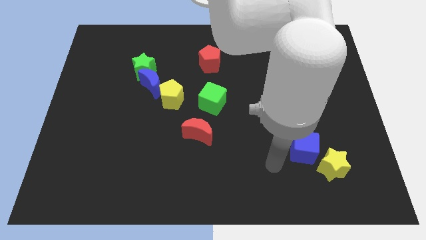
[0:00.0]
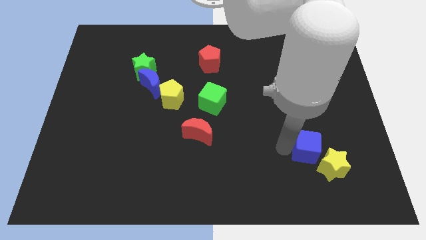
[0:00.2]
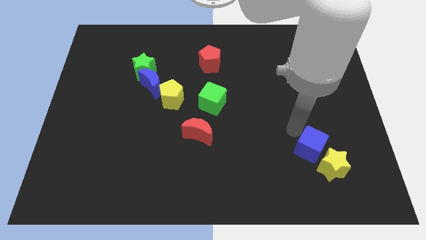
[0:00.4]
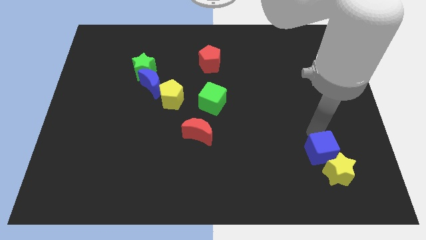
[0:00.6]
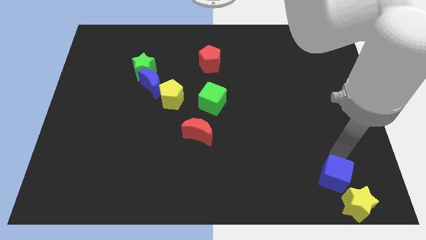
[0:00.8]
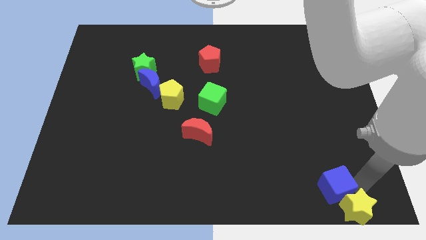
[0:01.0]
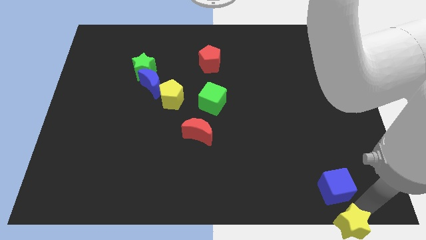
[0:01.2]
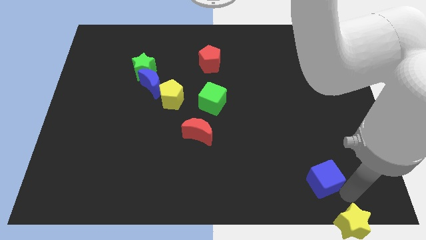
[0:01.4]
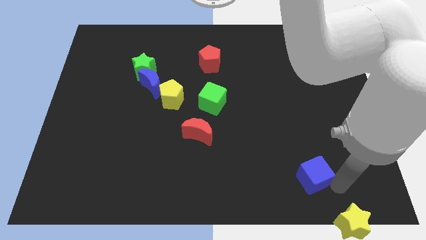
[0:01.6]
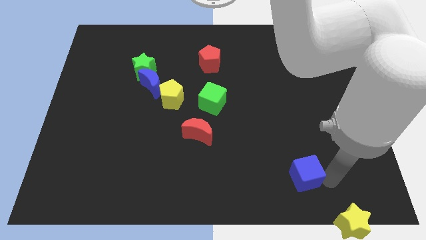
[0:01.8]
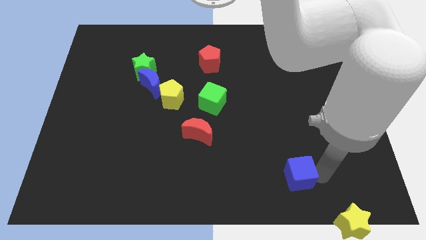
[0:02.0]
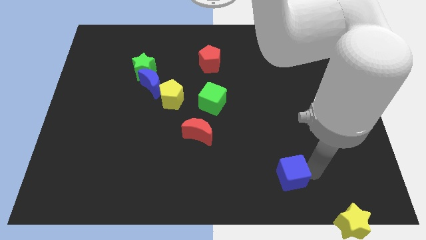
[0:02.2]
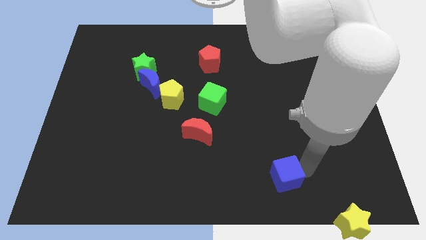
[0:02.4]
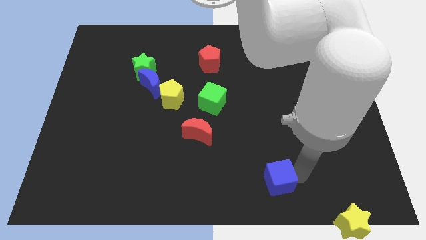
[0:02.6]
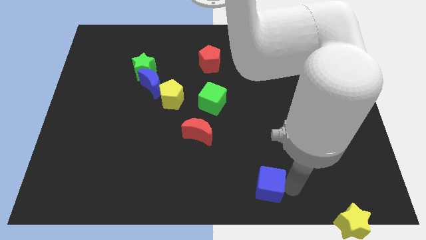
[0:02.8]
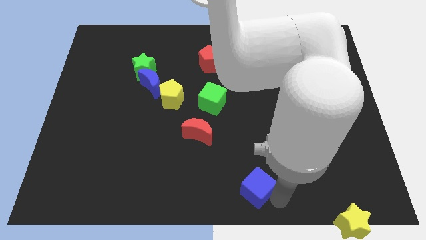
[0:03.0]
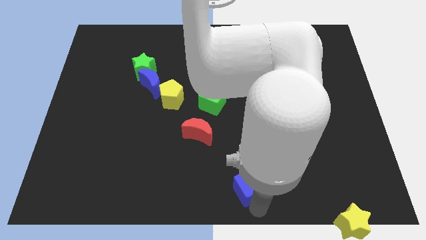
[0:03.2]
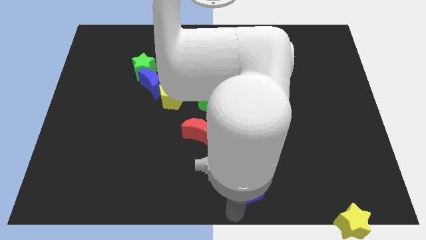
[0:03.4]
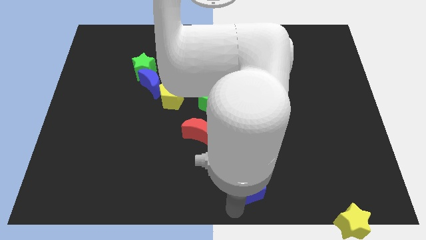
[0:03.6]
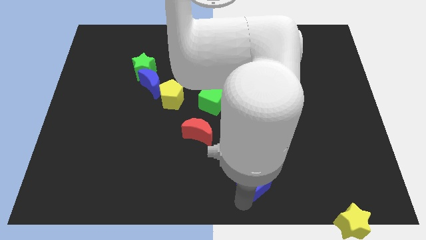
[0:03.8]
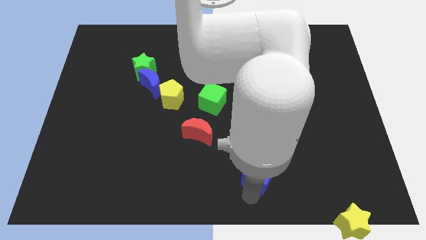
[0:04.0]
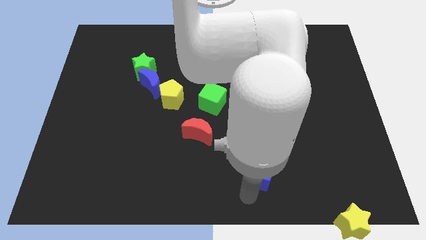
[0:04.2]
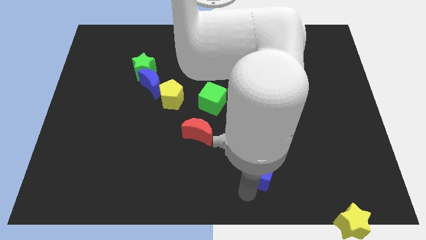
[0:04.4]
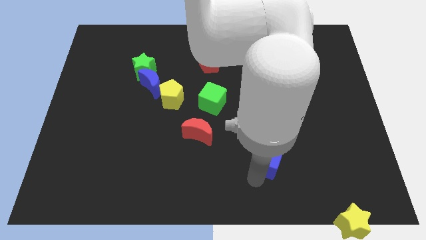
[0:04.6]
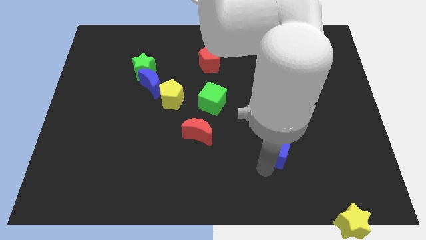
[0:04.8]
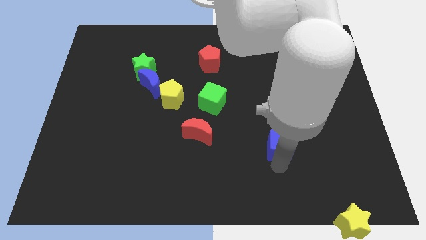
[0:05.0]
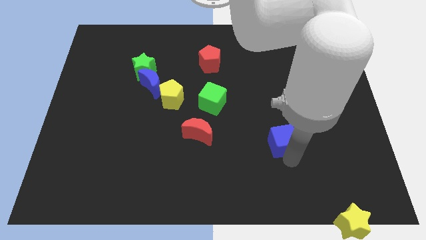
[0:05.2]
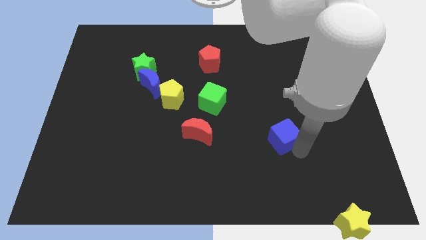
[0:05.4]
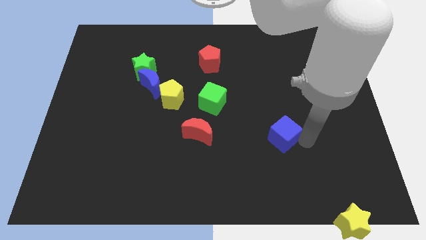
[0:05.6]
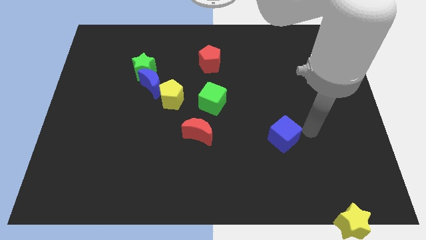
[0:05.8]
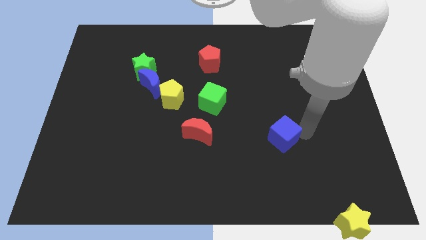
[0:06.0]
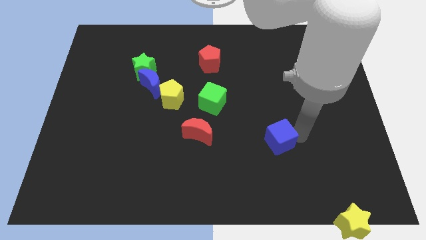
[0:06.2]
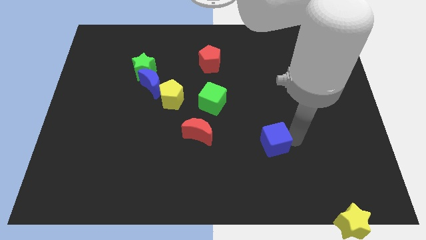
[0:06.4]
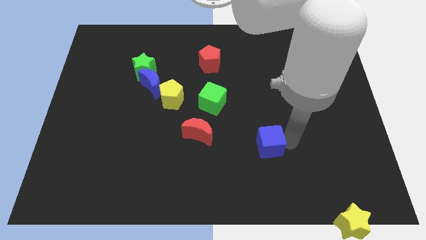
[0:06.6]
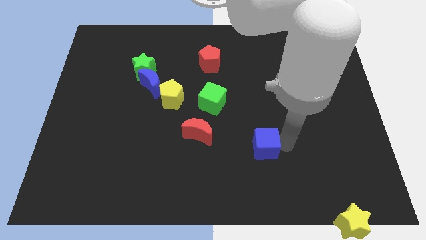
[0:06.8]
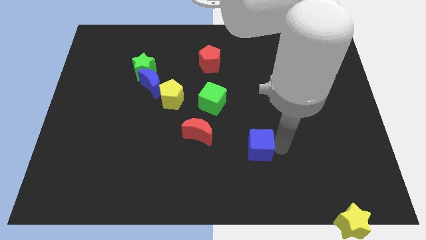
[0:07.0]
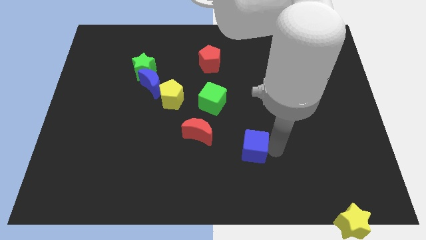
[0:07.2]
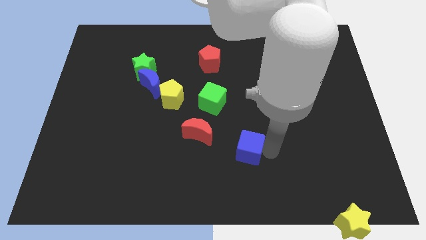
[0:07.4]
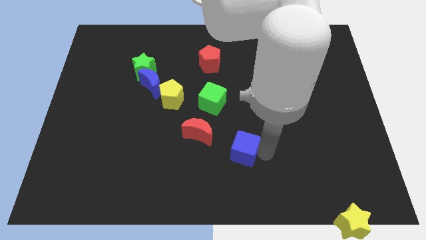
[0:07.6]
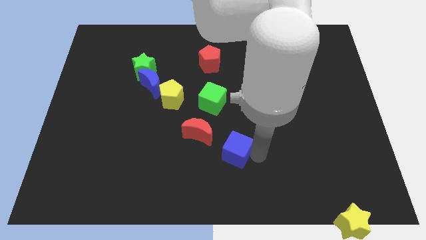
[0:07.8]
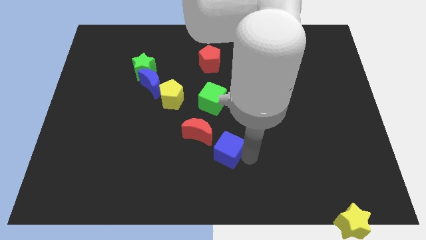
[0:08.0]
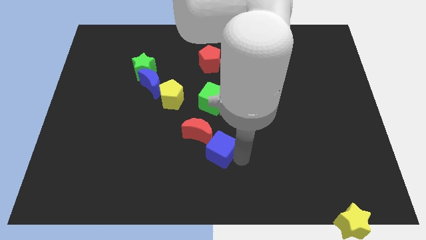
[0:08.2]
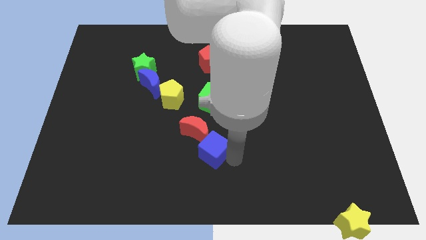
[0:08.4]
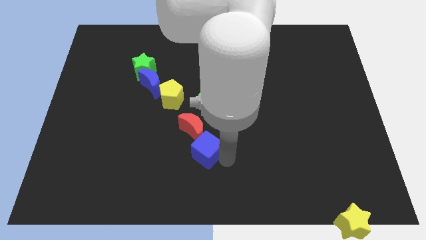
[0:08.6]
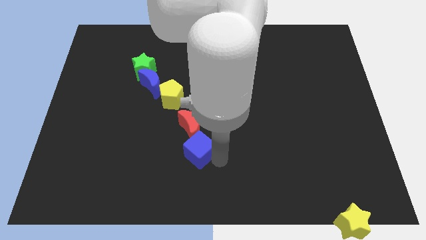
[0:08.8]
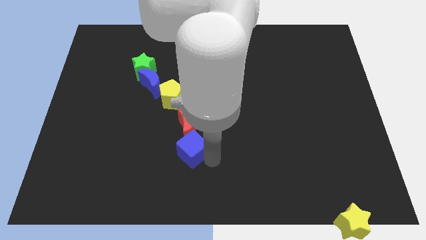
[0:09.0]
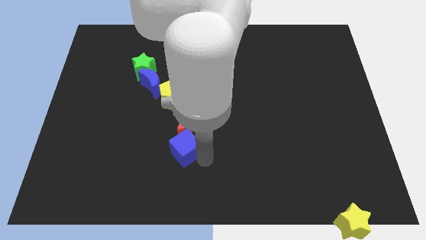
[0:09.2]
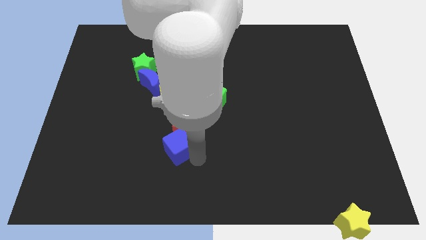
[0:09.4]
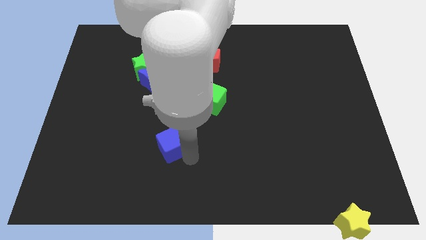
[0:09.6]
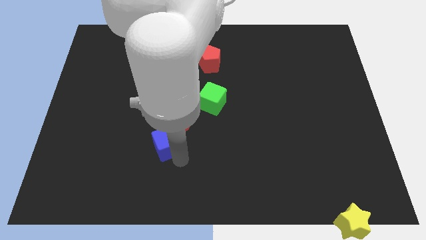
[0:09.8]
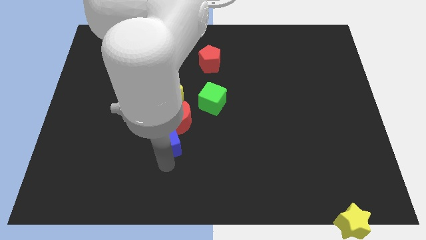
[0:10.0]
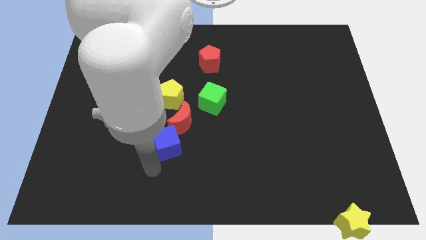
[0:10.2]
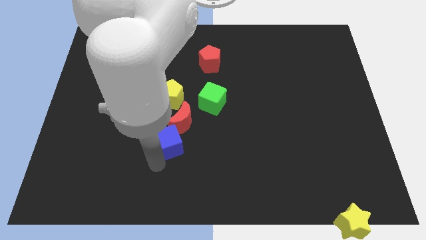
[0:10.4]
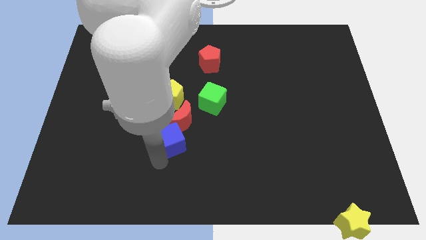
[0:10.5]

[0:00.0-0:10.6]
push the blue cube next to the red moon

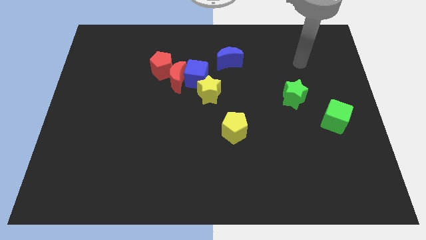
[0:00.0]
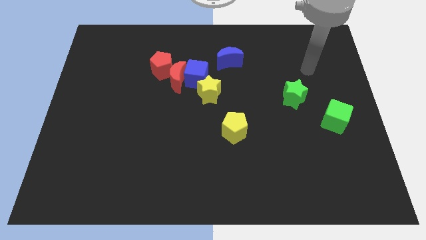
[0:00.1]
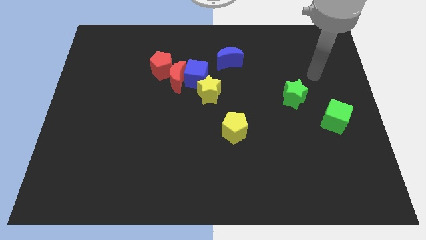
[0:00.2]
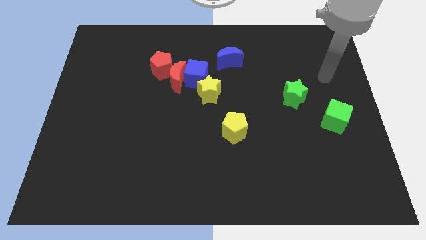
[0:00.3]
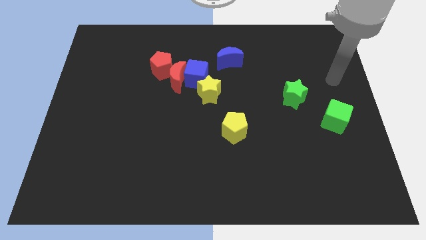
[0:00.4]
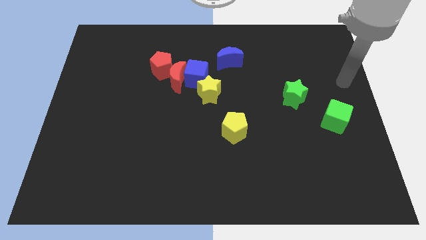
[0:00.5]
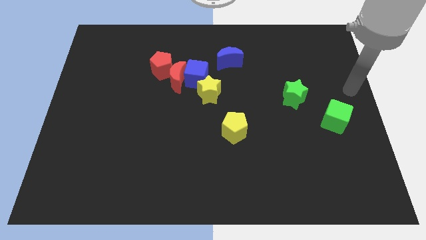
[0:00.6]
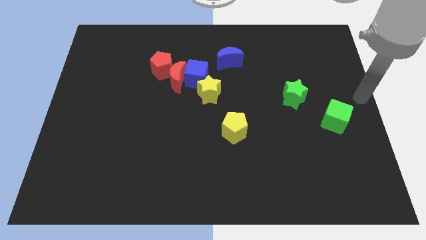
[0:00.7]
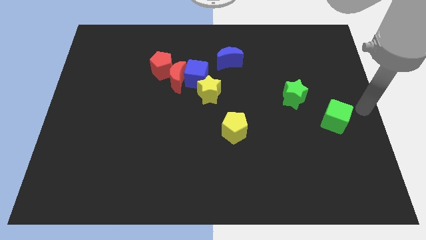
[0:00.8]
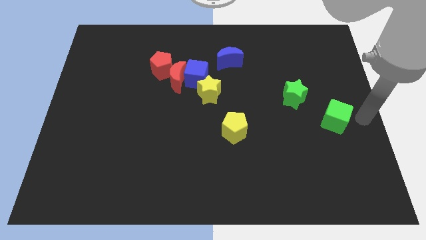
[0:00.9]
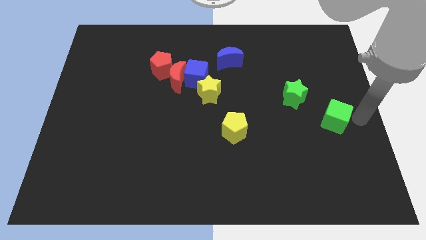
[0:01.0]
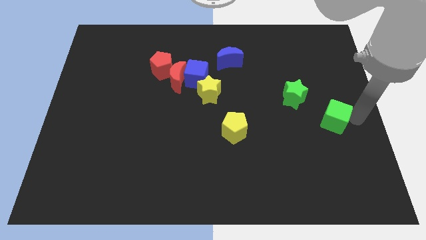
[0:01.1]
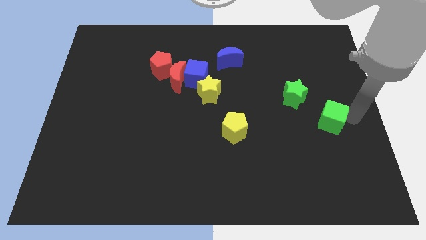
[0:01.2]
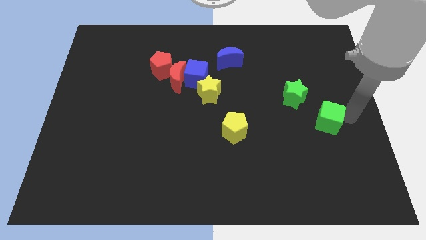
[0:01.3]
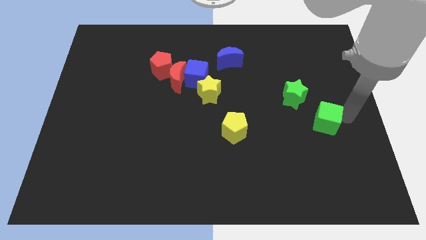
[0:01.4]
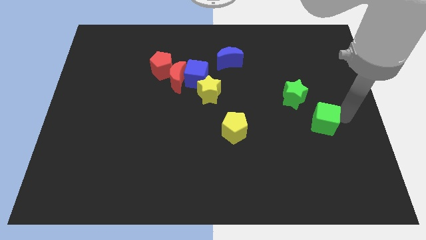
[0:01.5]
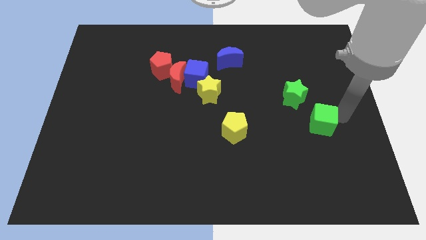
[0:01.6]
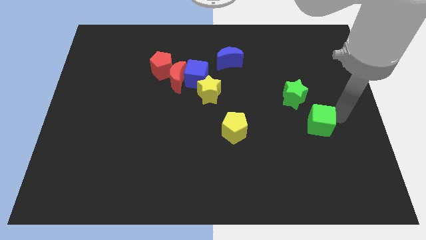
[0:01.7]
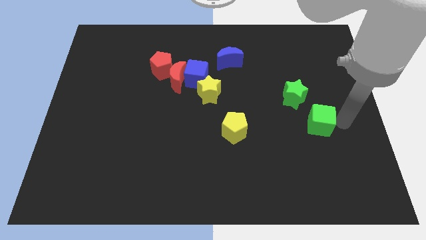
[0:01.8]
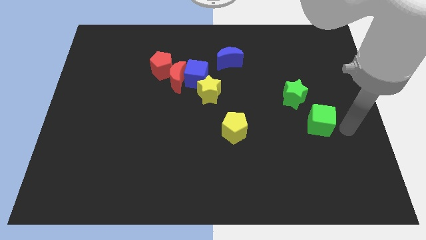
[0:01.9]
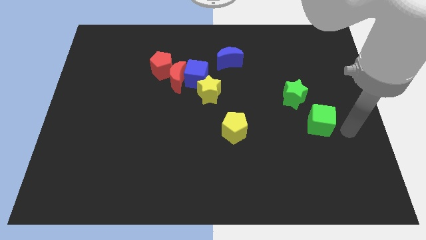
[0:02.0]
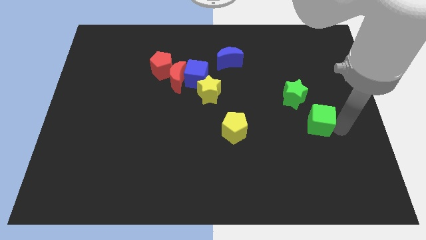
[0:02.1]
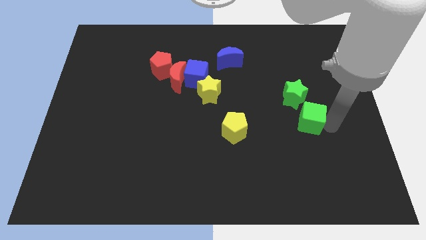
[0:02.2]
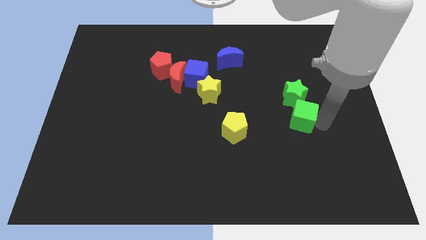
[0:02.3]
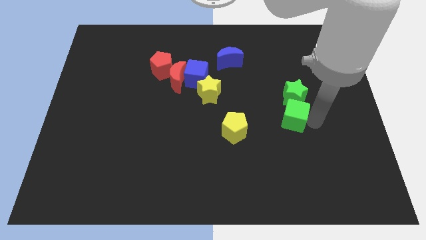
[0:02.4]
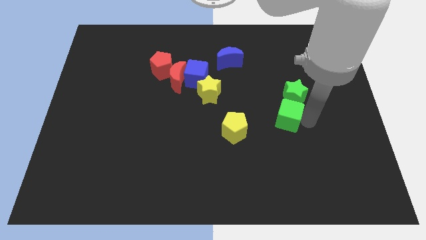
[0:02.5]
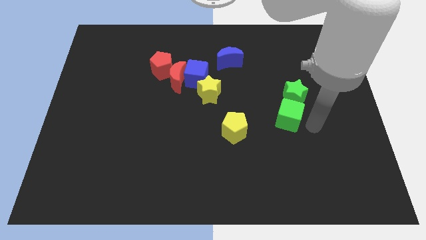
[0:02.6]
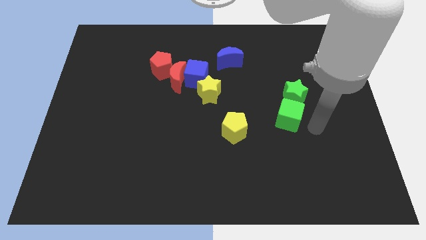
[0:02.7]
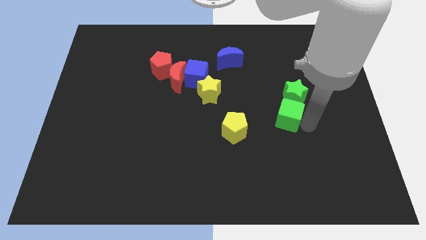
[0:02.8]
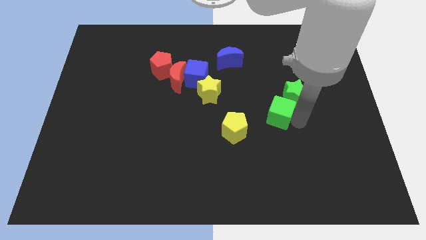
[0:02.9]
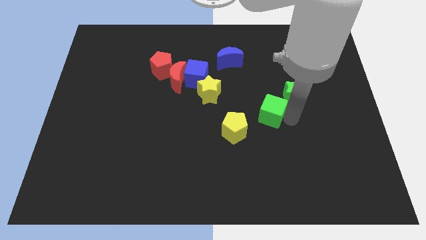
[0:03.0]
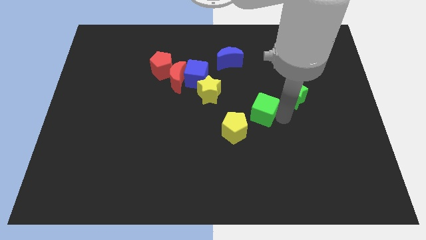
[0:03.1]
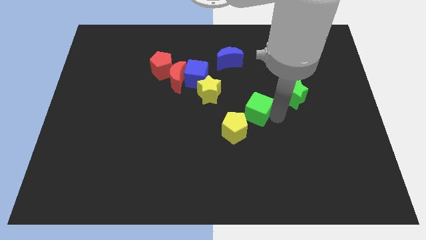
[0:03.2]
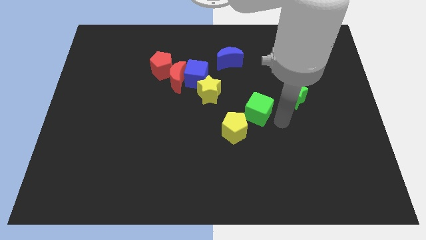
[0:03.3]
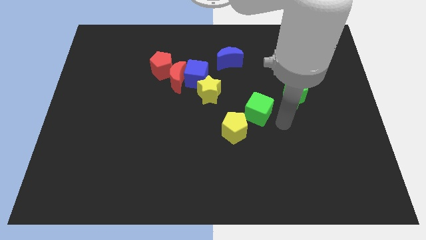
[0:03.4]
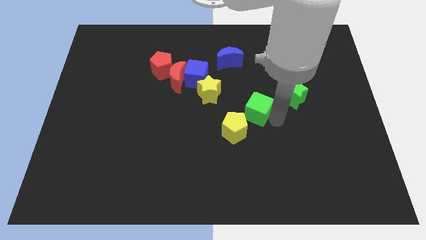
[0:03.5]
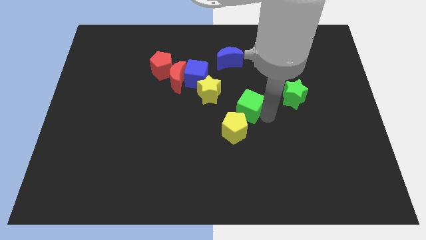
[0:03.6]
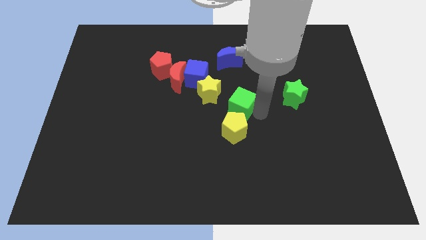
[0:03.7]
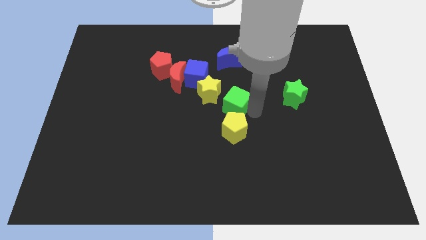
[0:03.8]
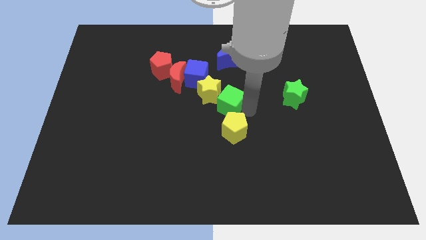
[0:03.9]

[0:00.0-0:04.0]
slide the green cube close to the yellow star
